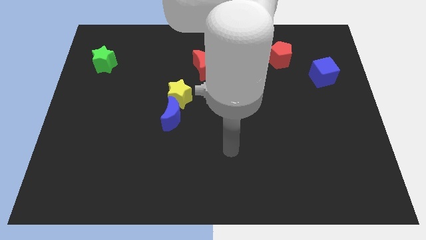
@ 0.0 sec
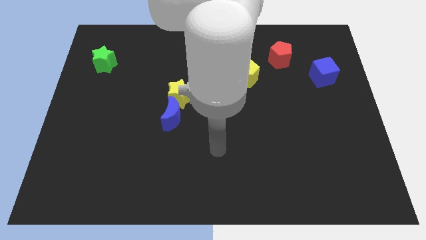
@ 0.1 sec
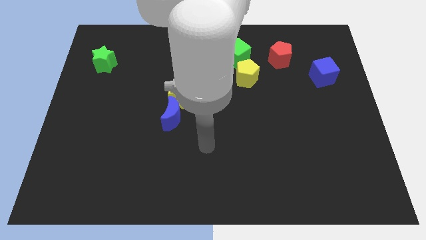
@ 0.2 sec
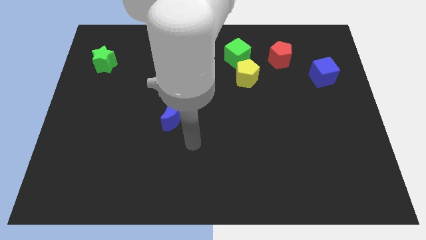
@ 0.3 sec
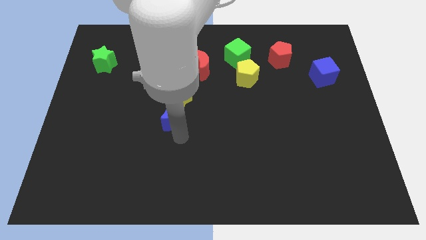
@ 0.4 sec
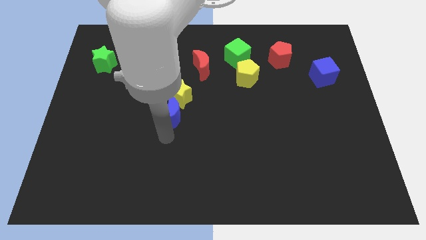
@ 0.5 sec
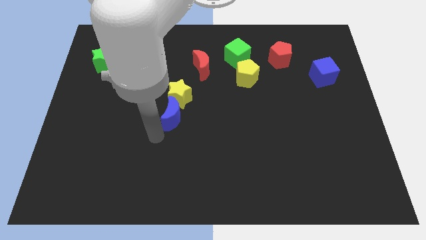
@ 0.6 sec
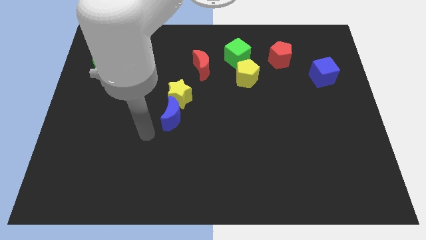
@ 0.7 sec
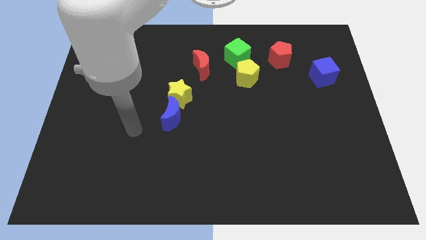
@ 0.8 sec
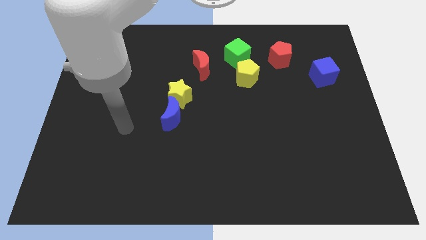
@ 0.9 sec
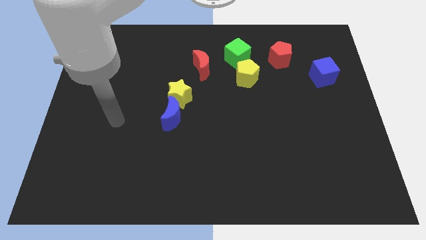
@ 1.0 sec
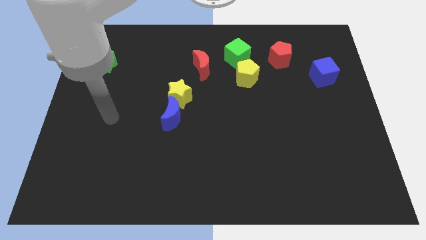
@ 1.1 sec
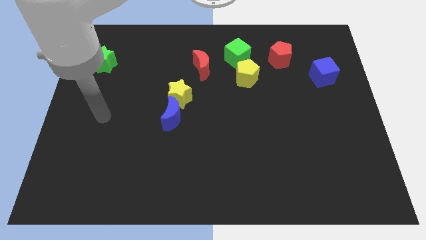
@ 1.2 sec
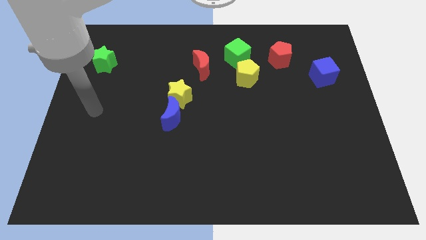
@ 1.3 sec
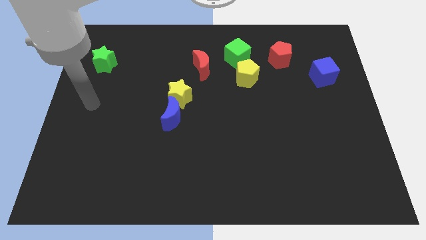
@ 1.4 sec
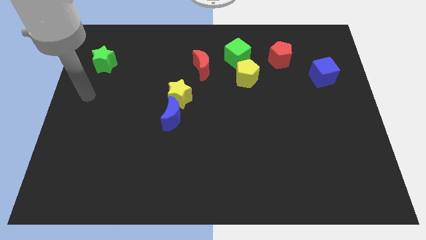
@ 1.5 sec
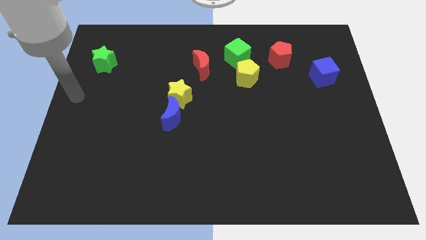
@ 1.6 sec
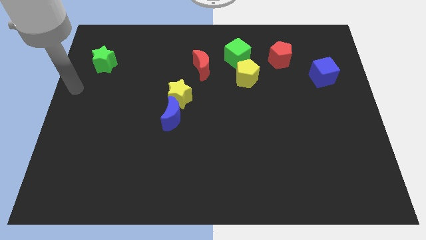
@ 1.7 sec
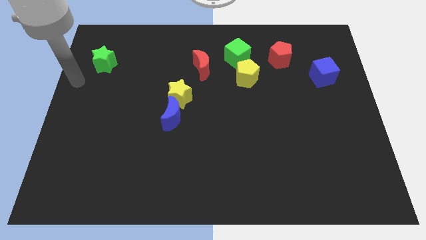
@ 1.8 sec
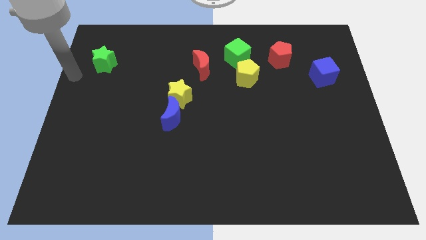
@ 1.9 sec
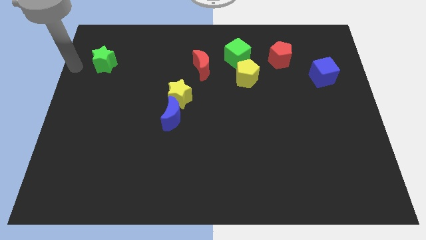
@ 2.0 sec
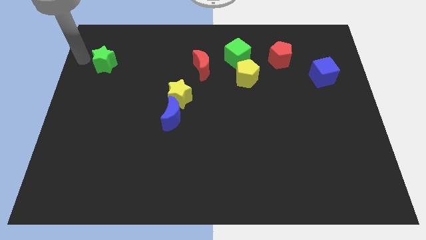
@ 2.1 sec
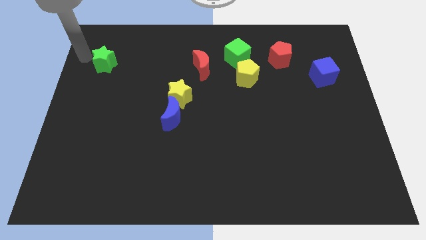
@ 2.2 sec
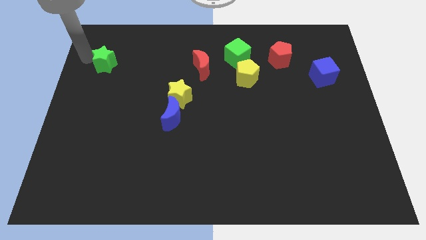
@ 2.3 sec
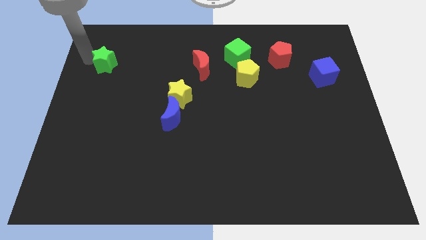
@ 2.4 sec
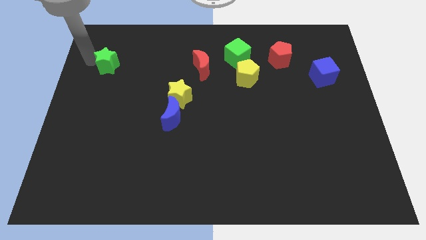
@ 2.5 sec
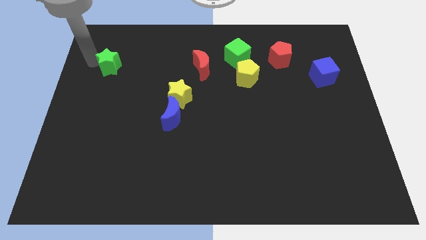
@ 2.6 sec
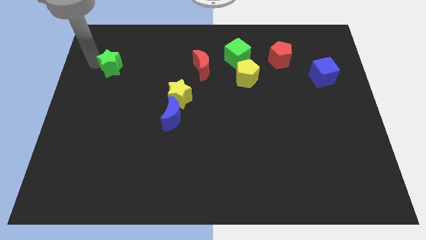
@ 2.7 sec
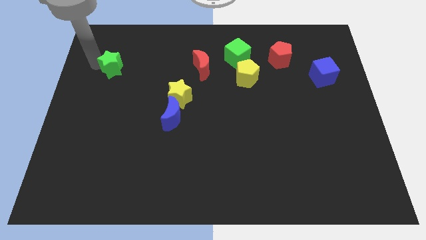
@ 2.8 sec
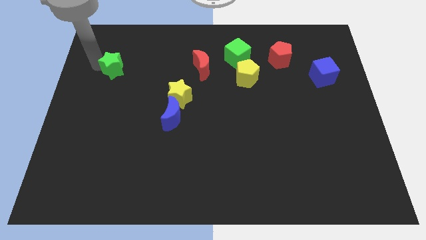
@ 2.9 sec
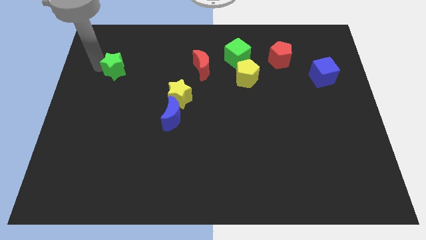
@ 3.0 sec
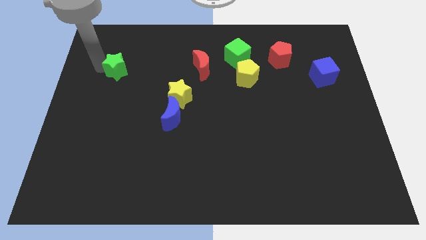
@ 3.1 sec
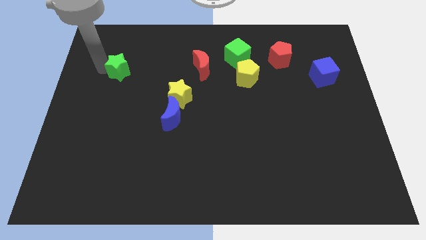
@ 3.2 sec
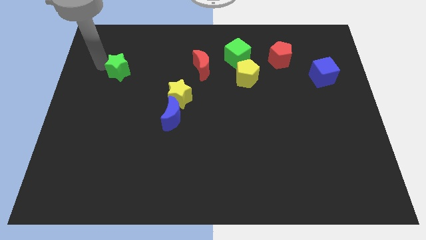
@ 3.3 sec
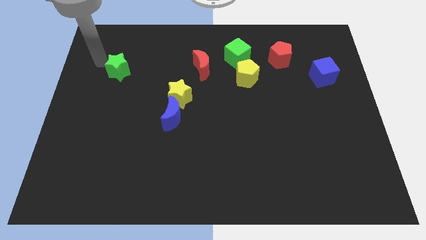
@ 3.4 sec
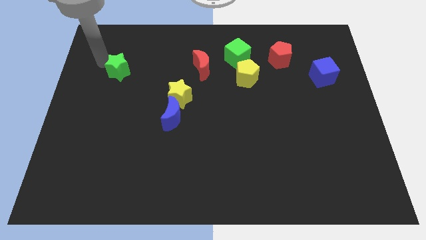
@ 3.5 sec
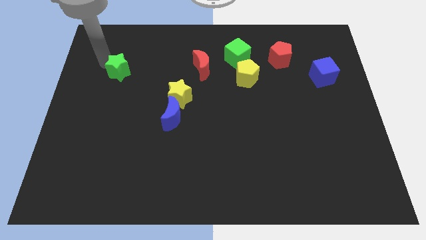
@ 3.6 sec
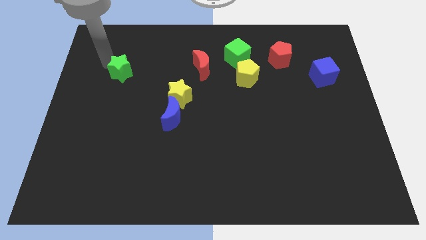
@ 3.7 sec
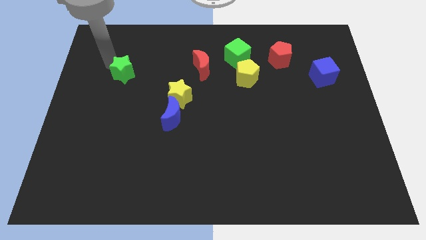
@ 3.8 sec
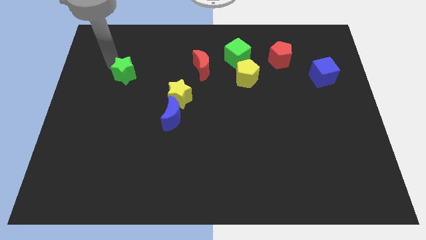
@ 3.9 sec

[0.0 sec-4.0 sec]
move the green star downwards and then right a little bit

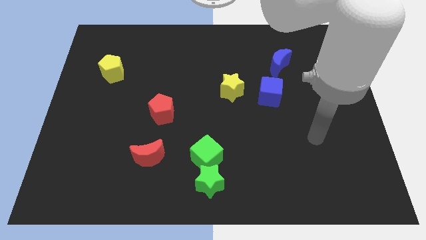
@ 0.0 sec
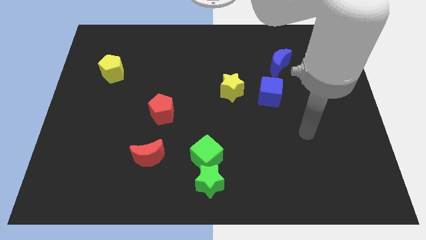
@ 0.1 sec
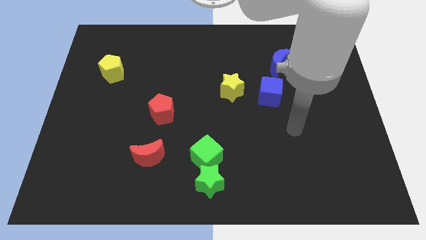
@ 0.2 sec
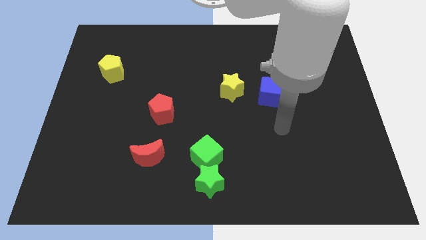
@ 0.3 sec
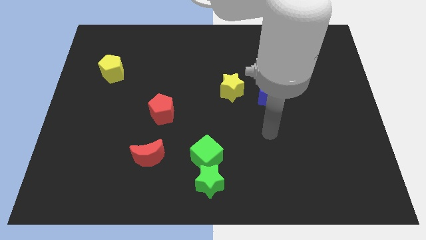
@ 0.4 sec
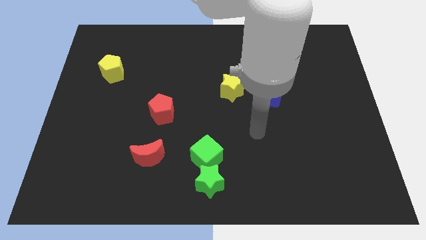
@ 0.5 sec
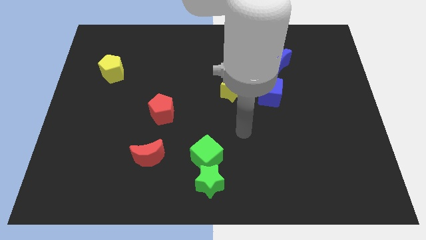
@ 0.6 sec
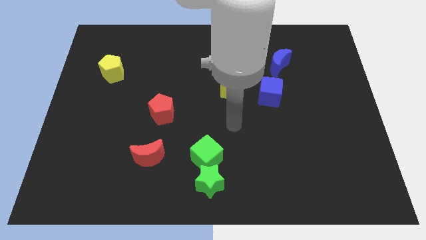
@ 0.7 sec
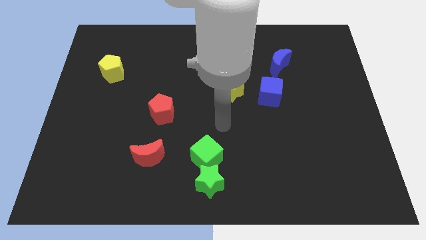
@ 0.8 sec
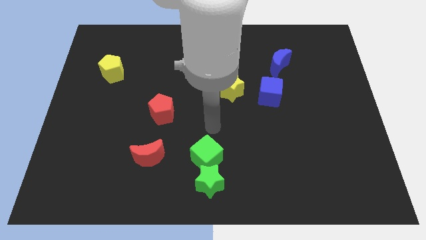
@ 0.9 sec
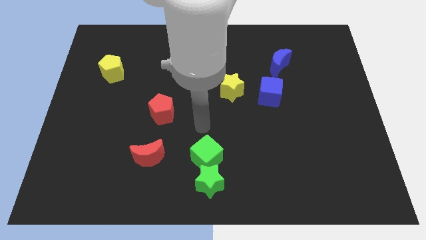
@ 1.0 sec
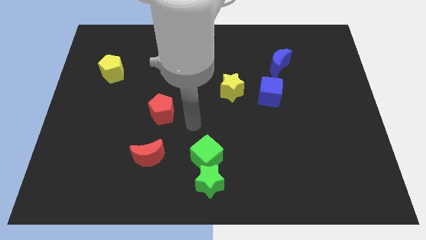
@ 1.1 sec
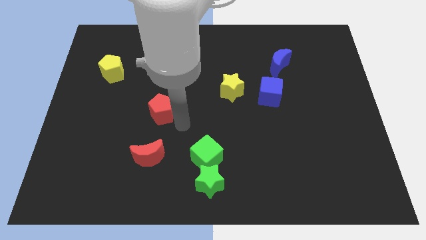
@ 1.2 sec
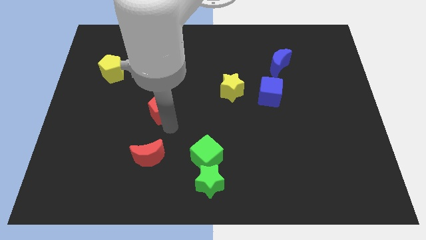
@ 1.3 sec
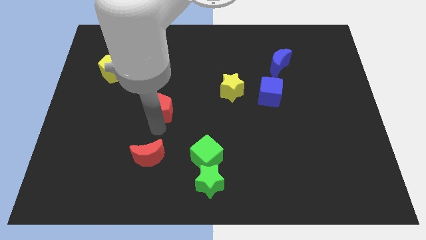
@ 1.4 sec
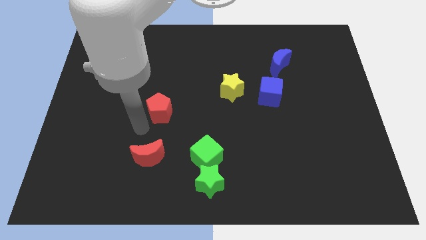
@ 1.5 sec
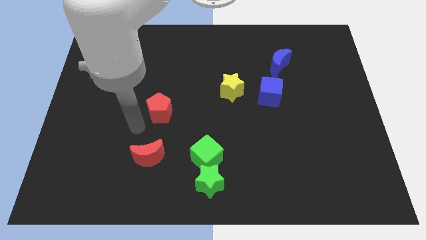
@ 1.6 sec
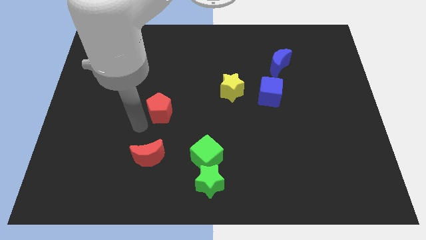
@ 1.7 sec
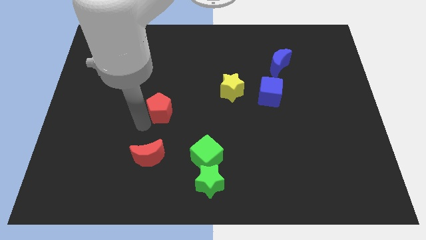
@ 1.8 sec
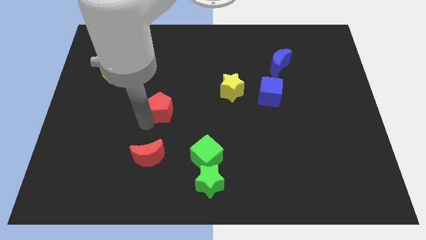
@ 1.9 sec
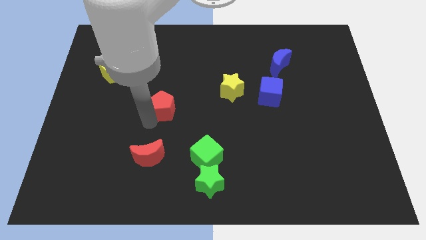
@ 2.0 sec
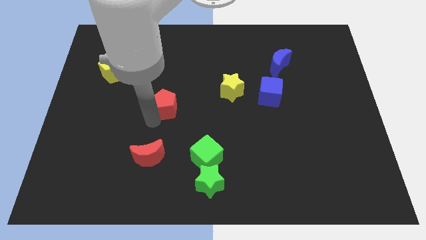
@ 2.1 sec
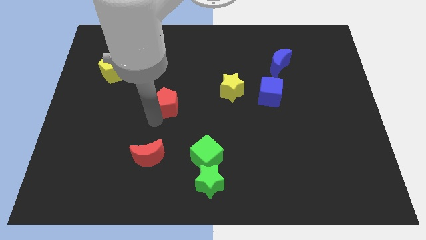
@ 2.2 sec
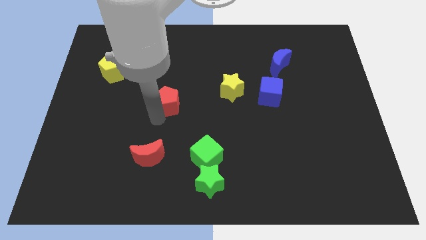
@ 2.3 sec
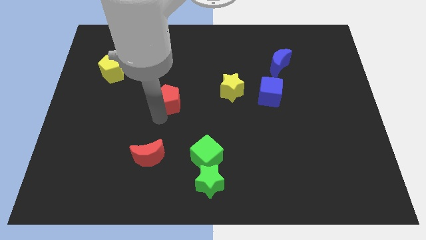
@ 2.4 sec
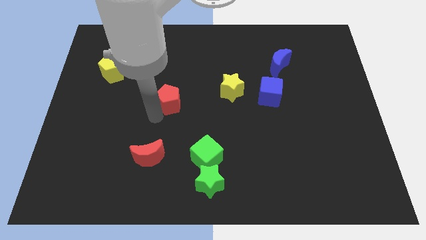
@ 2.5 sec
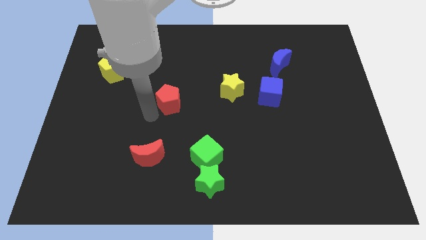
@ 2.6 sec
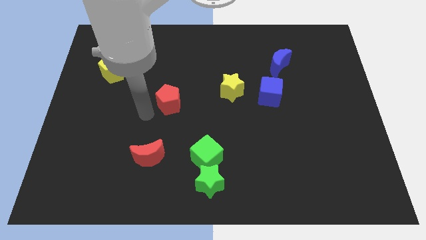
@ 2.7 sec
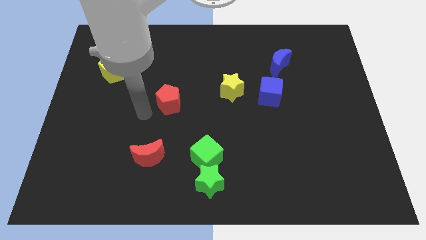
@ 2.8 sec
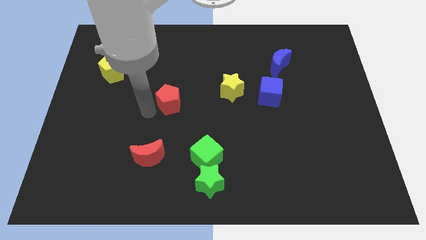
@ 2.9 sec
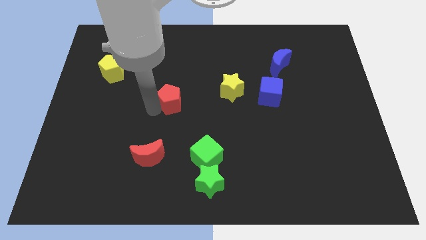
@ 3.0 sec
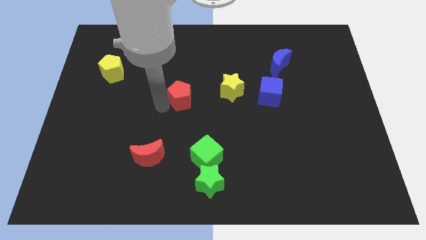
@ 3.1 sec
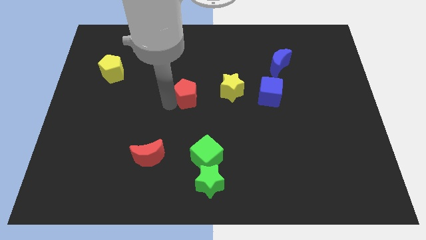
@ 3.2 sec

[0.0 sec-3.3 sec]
slightly slide the red pentagon upwards and then right

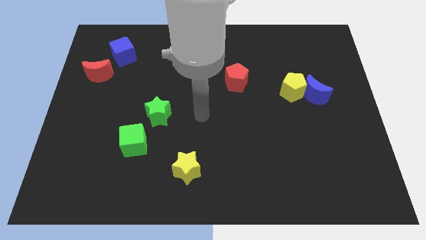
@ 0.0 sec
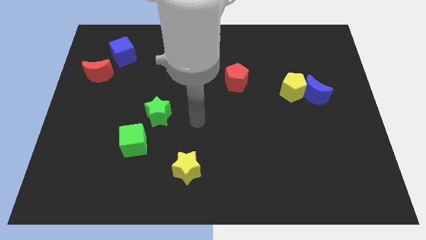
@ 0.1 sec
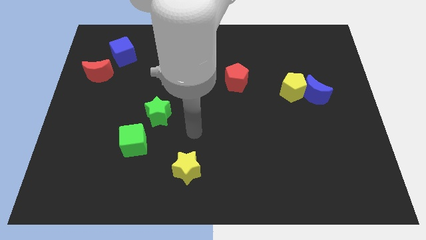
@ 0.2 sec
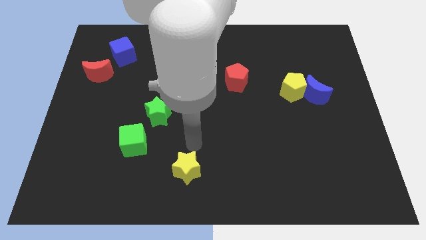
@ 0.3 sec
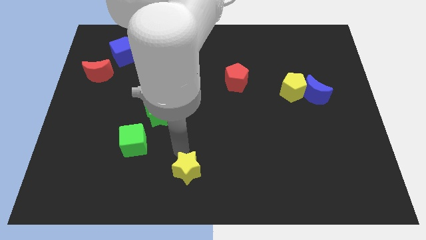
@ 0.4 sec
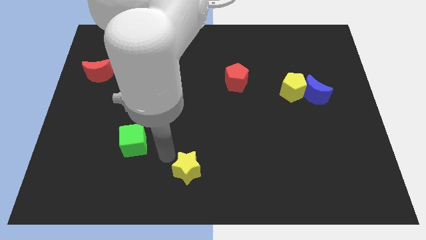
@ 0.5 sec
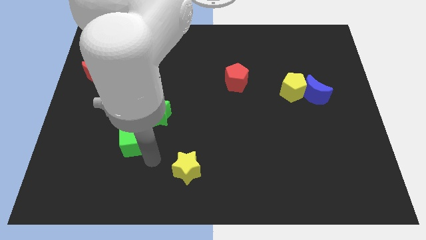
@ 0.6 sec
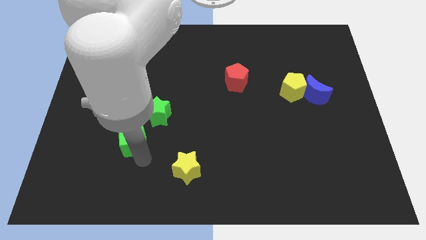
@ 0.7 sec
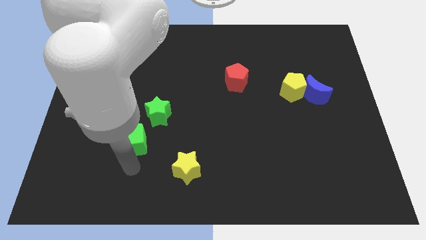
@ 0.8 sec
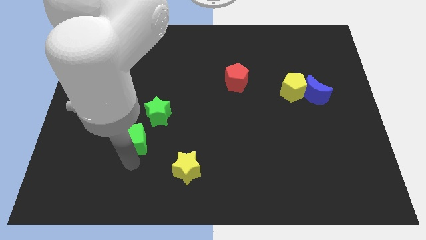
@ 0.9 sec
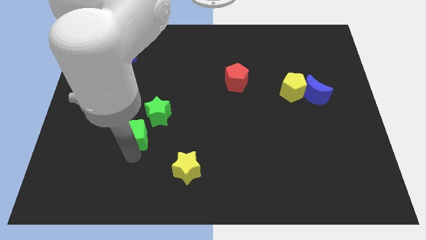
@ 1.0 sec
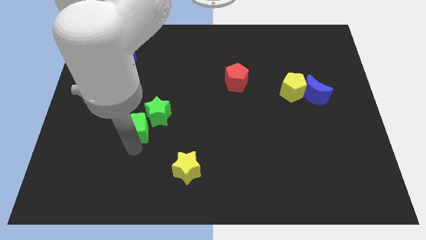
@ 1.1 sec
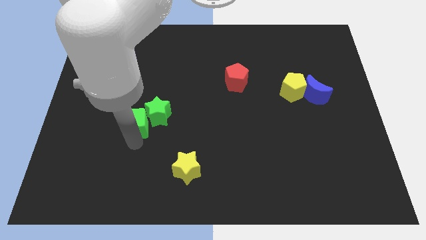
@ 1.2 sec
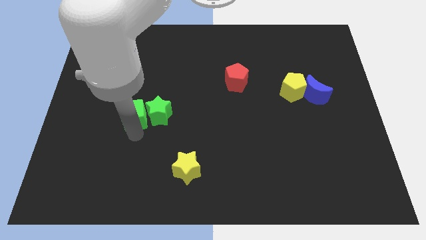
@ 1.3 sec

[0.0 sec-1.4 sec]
slightly slide the green cube upwards
